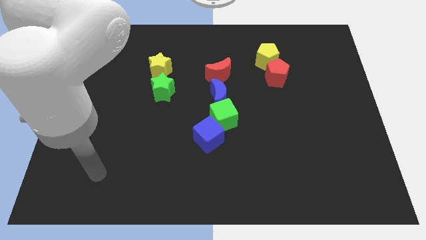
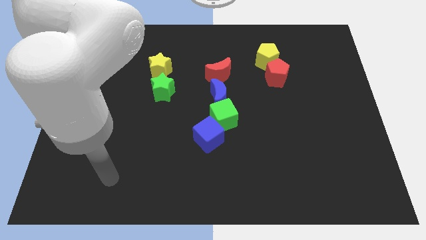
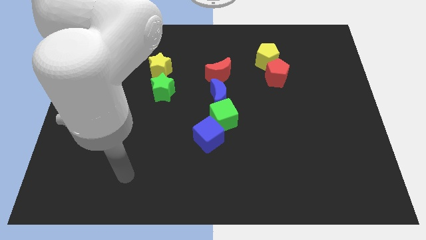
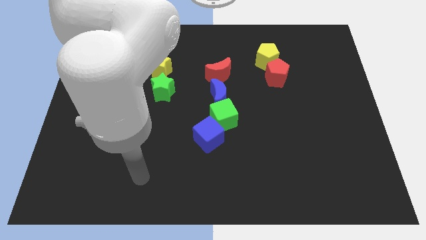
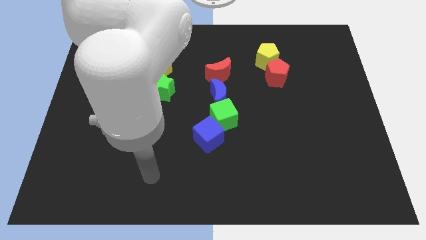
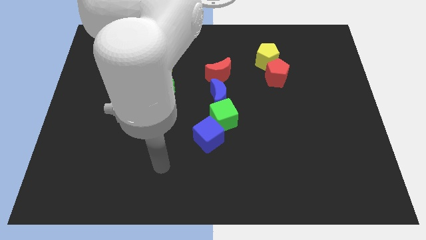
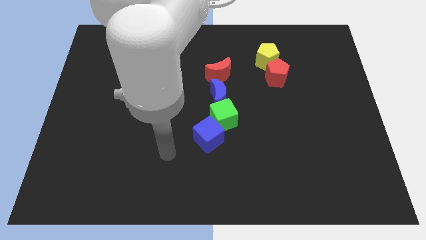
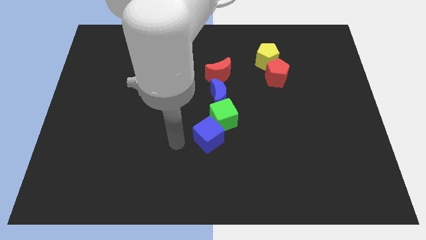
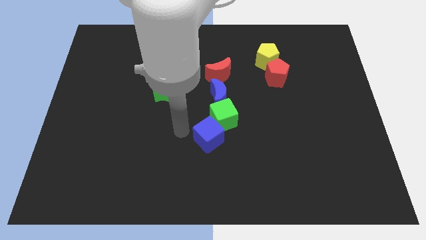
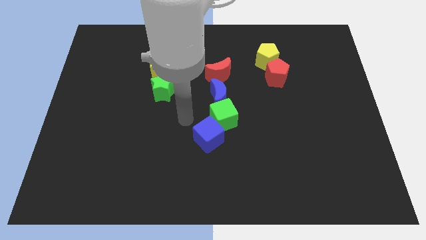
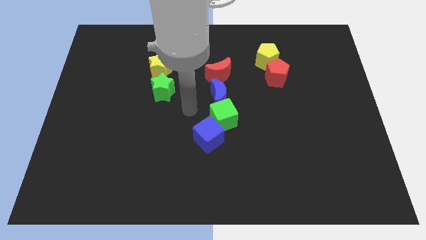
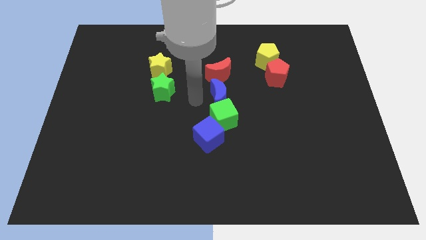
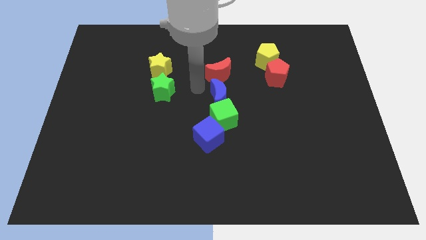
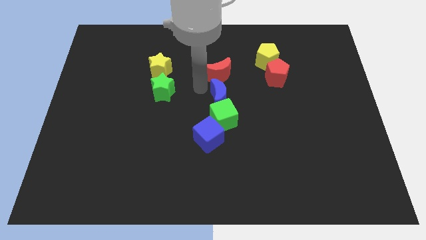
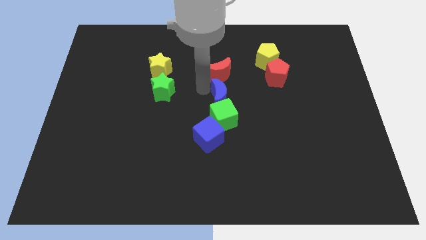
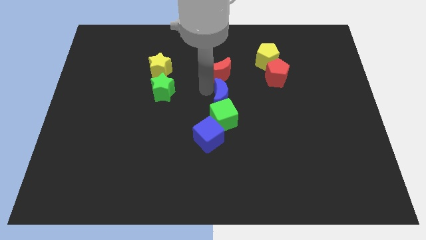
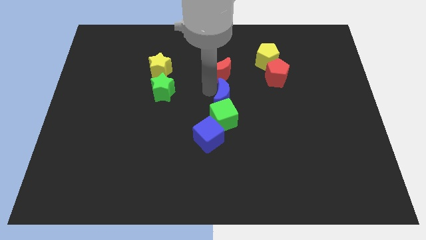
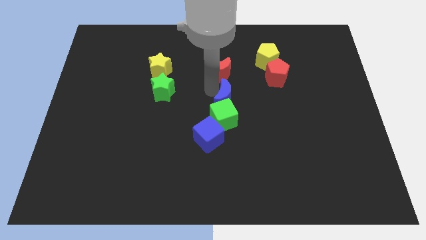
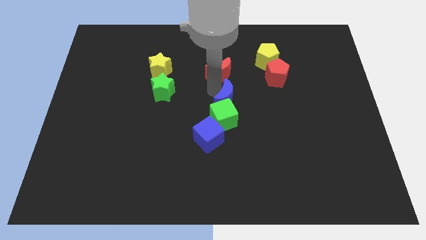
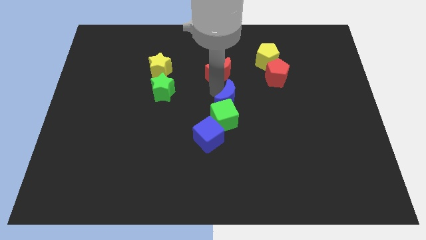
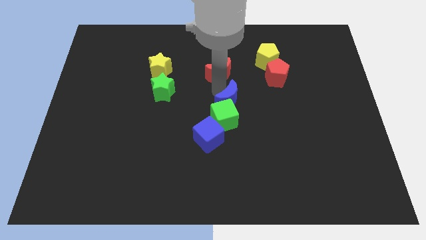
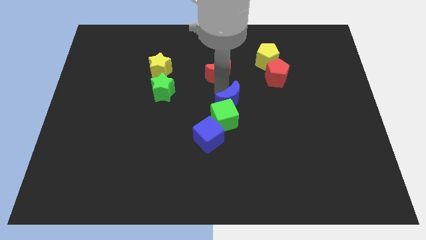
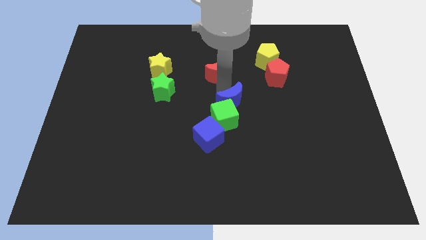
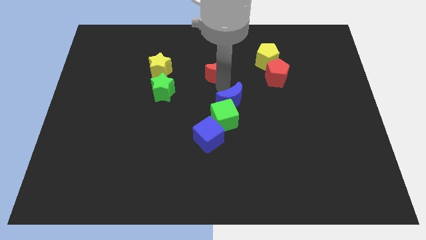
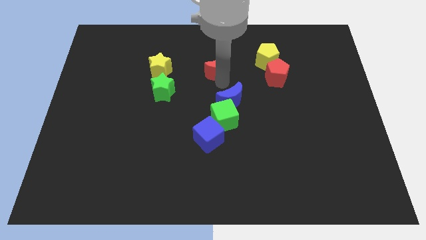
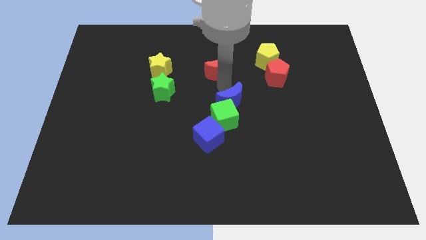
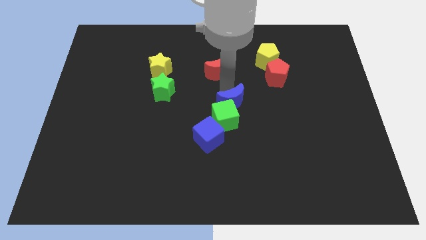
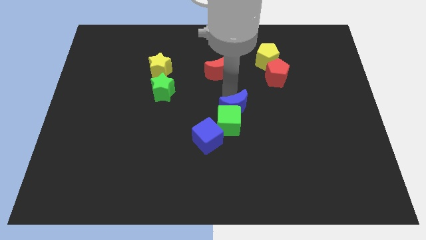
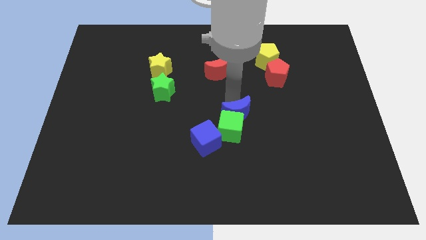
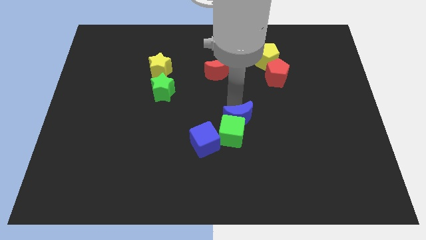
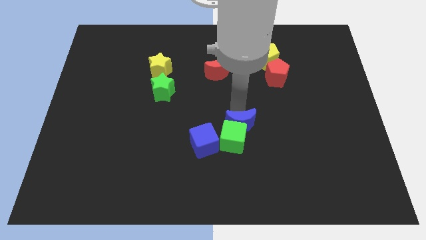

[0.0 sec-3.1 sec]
slightly move the blue moon down

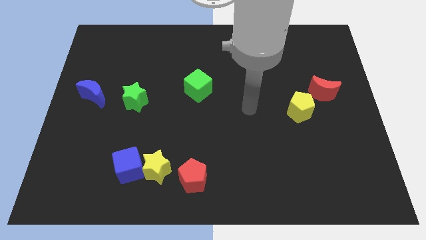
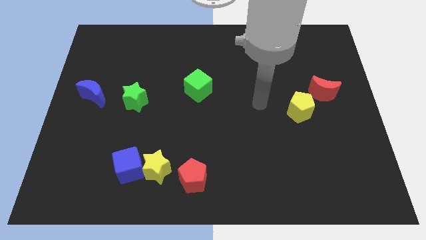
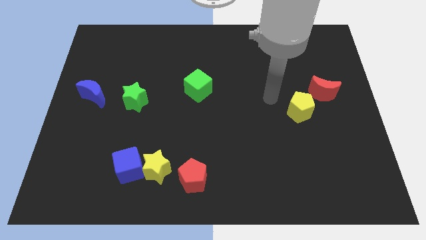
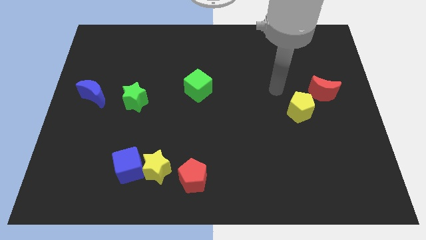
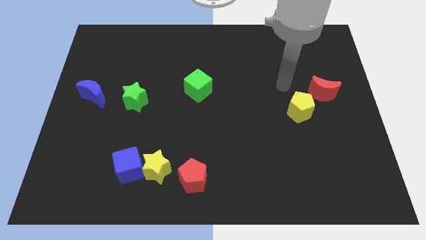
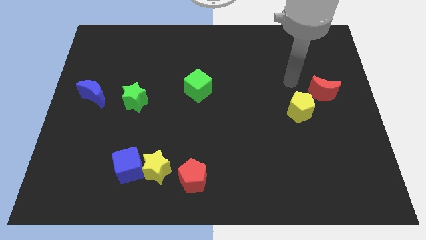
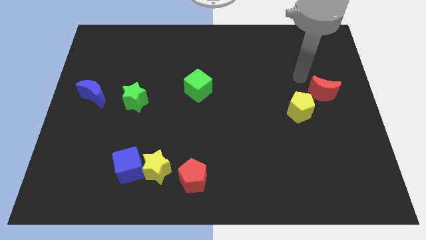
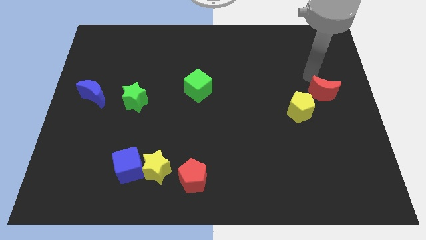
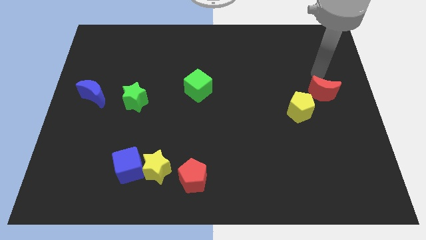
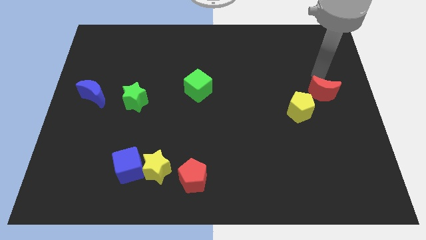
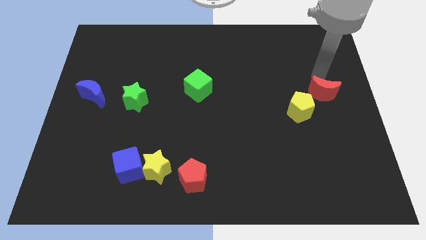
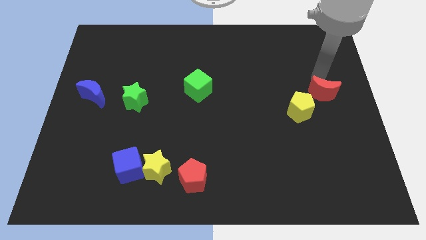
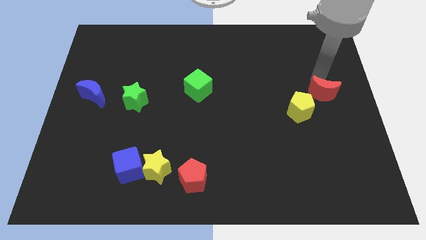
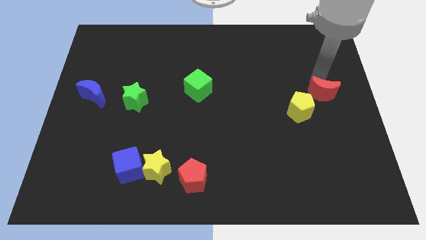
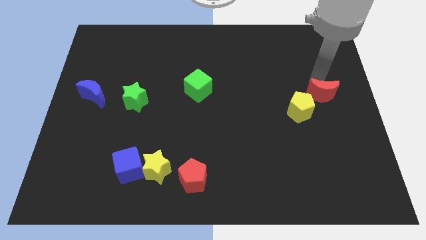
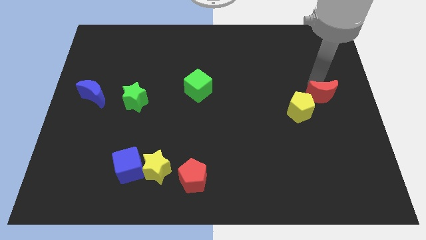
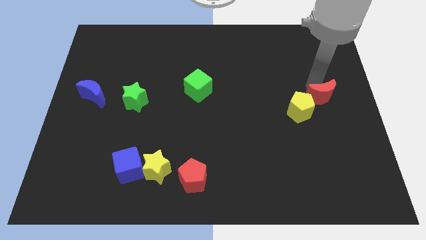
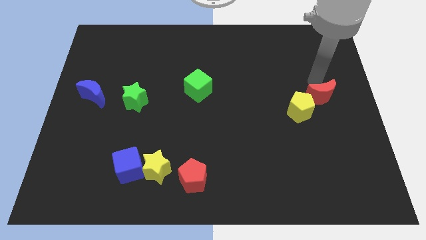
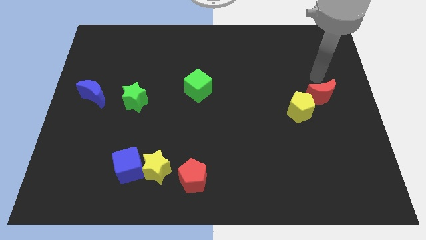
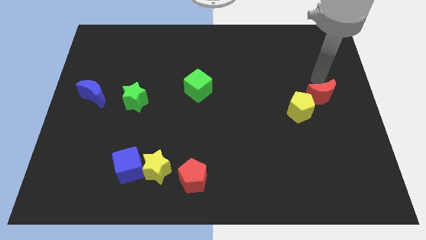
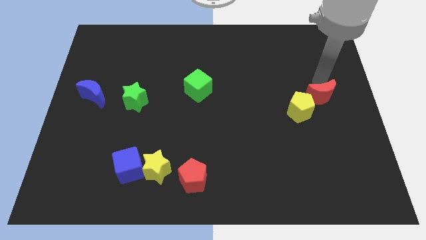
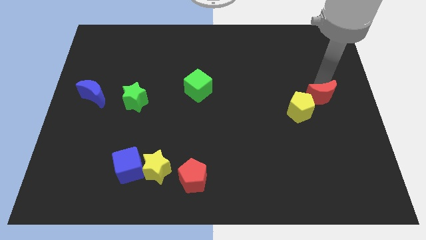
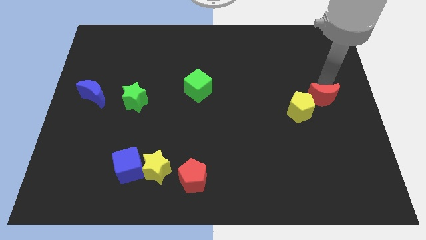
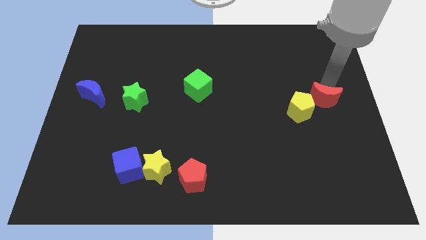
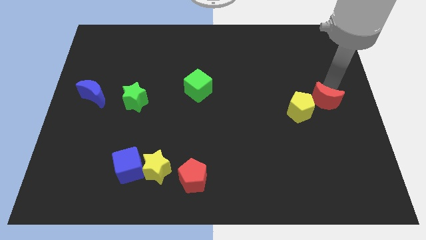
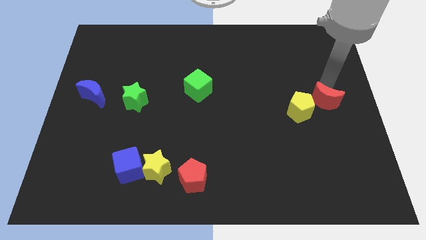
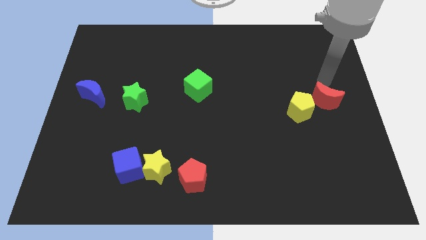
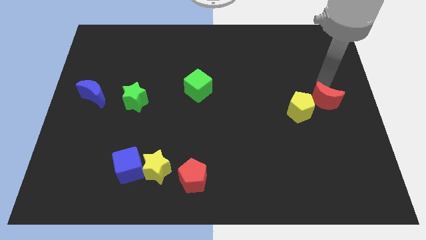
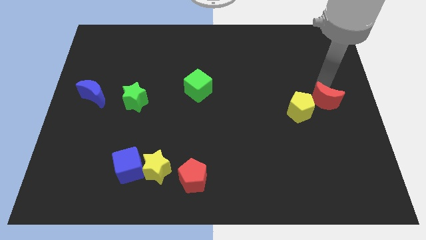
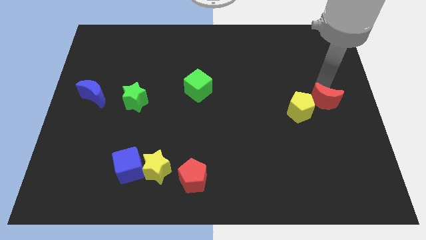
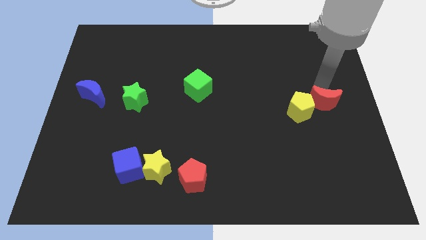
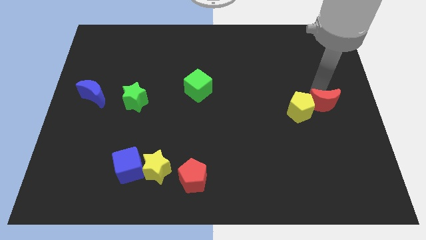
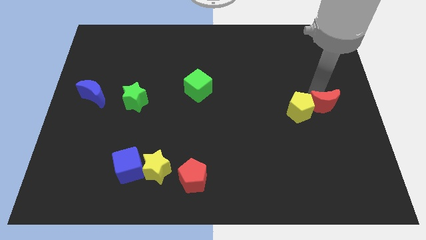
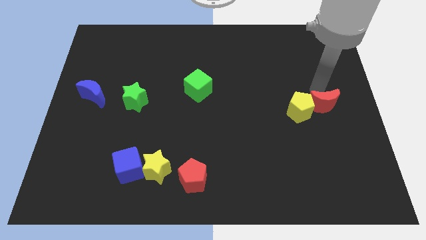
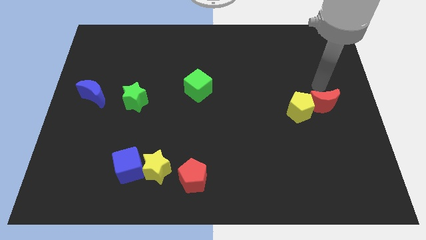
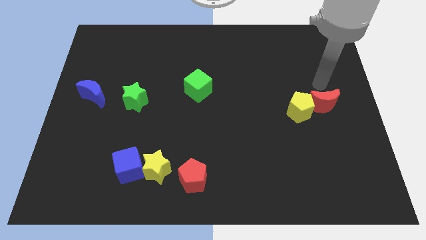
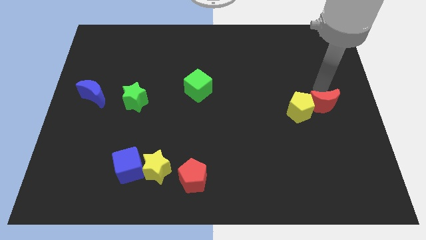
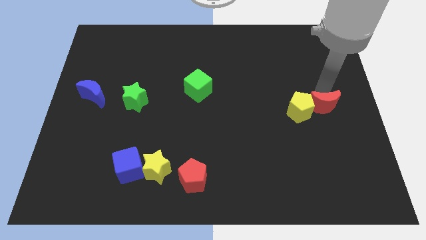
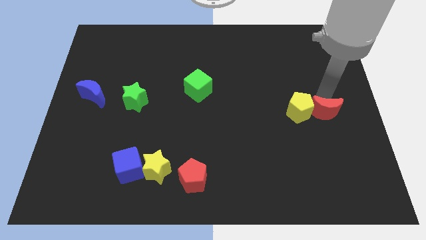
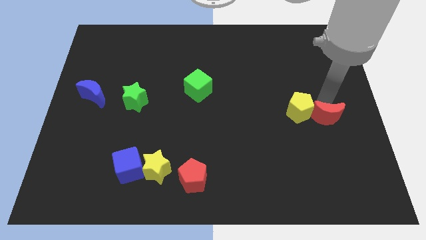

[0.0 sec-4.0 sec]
slightly push the red moon down

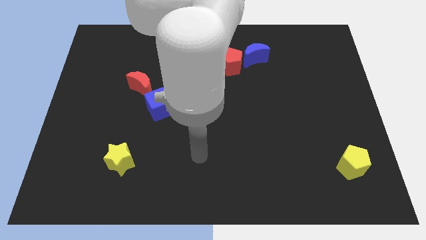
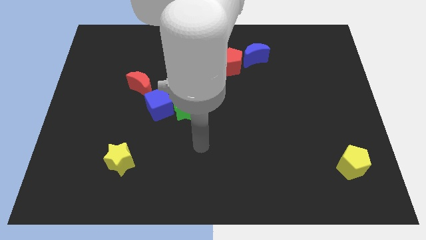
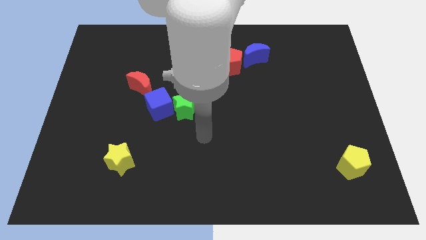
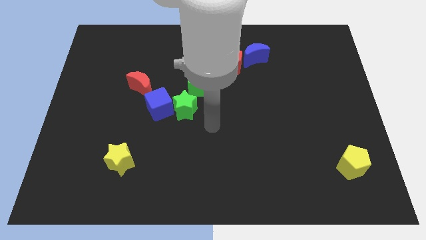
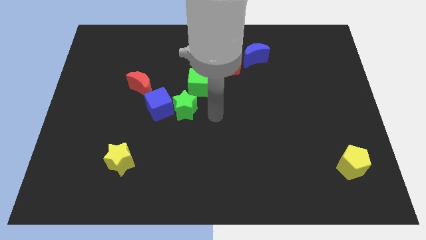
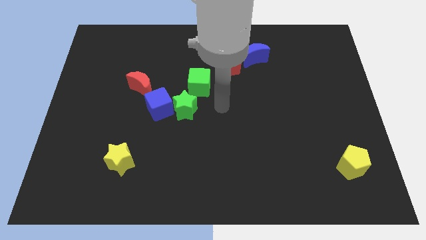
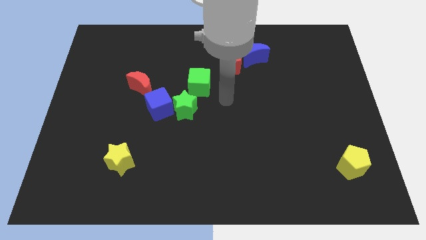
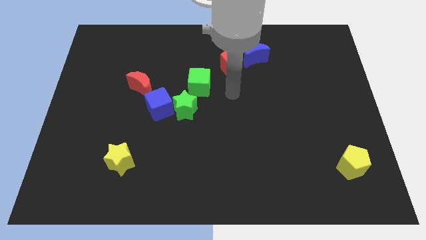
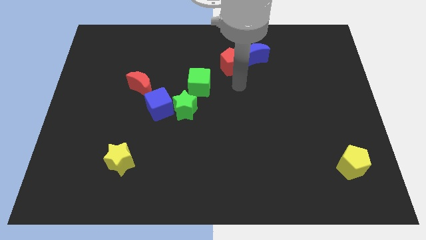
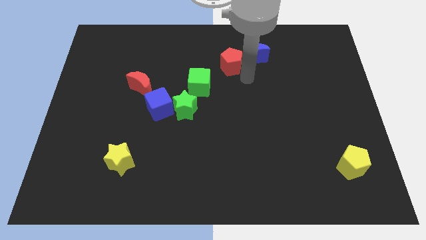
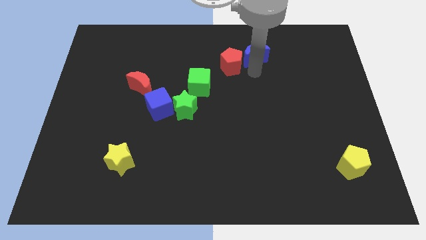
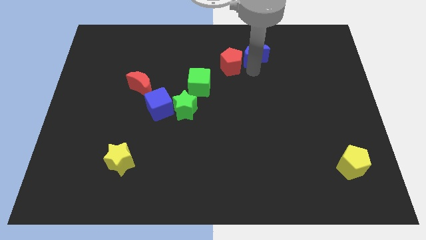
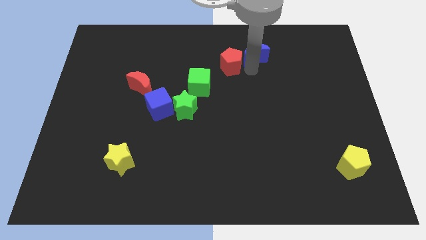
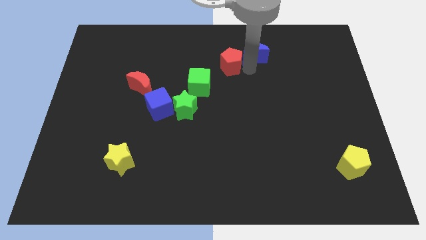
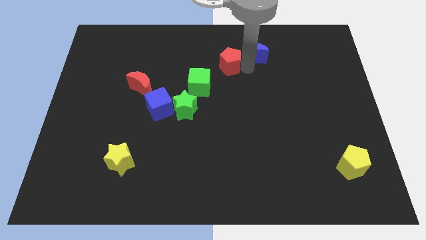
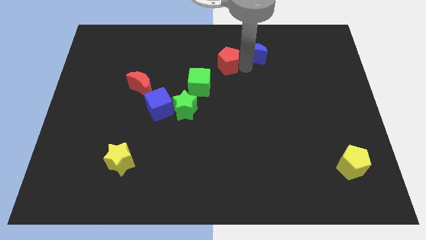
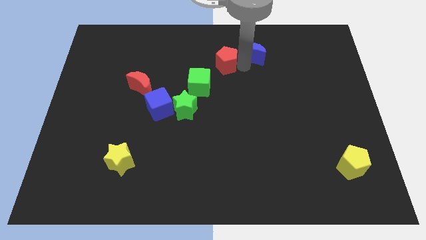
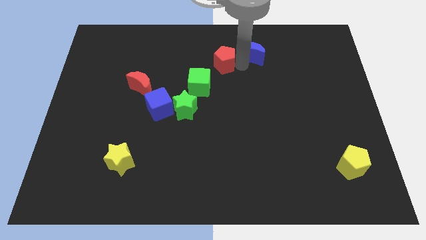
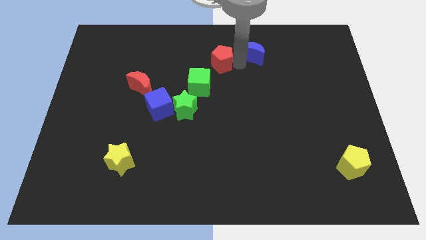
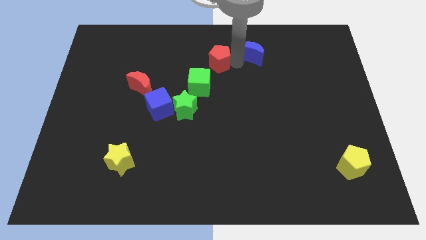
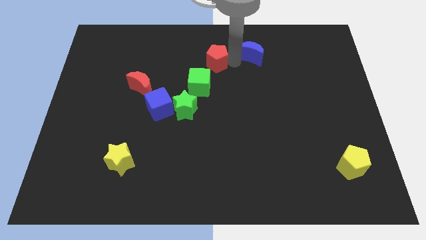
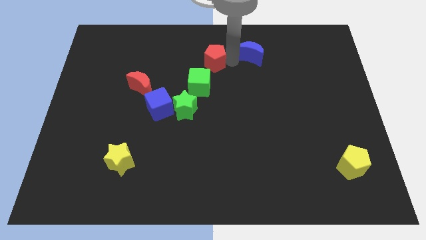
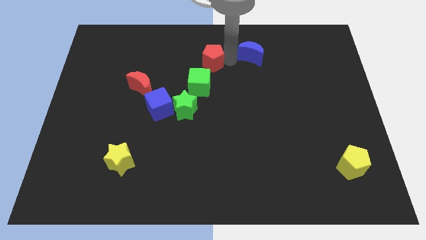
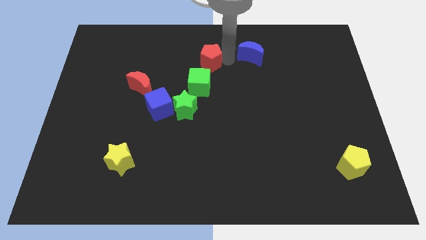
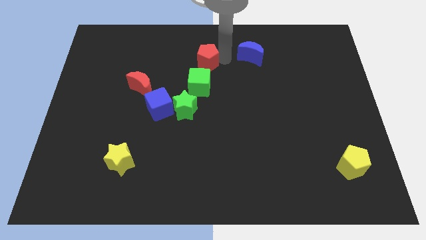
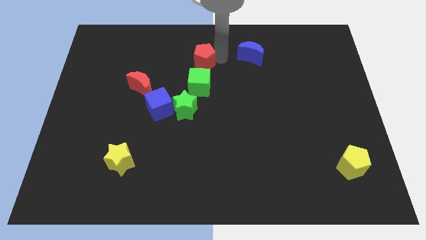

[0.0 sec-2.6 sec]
move the red pentagon a bit to the left
